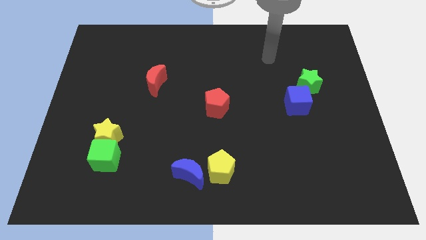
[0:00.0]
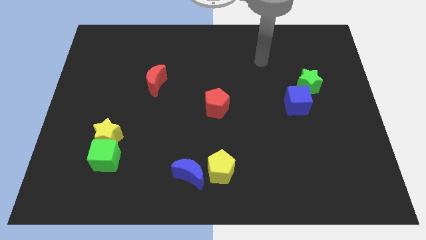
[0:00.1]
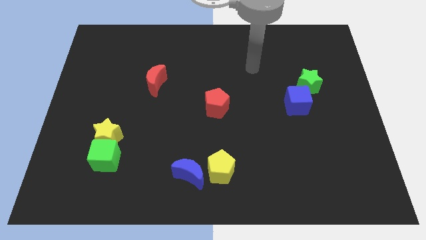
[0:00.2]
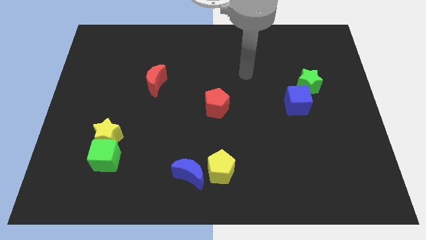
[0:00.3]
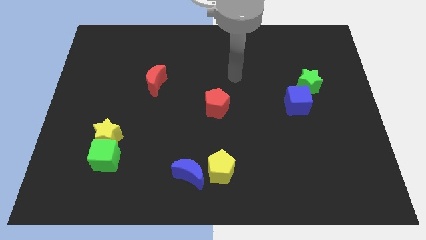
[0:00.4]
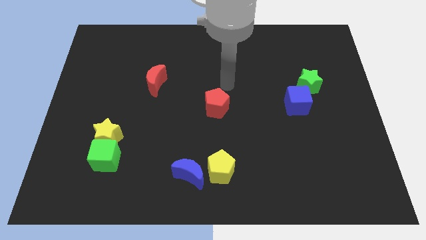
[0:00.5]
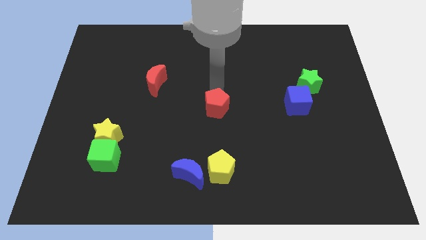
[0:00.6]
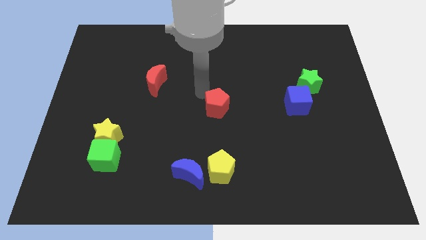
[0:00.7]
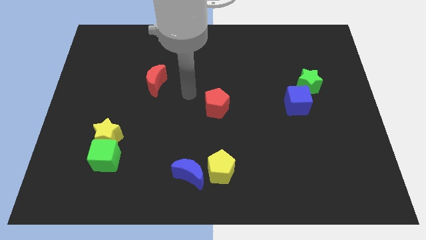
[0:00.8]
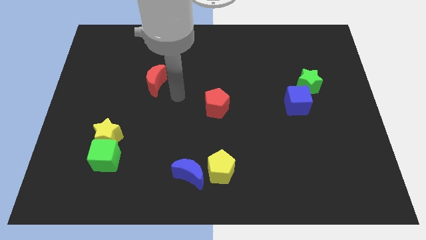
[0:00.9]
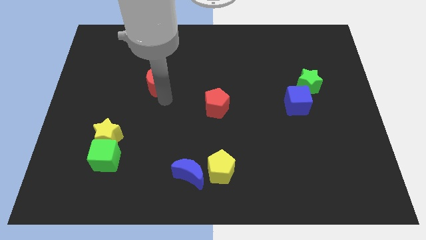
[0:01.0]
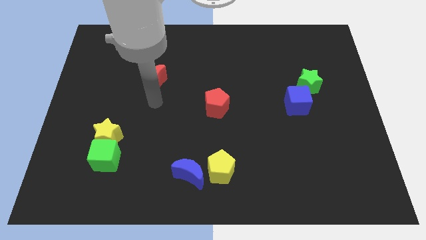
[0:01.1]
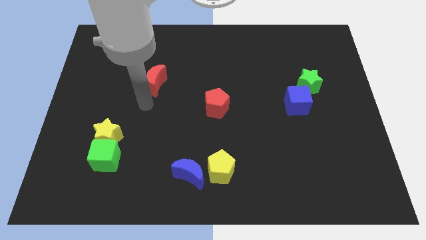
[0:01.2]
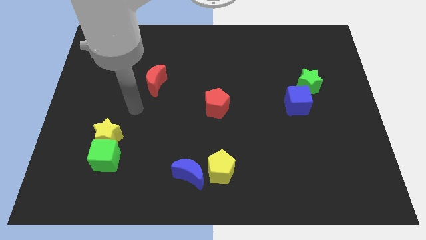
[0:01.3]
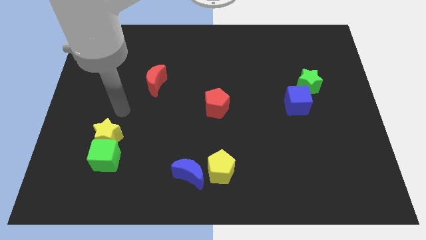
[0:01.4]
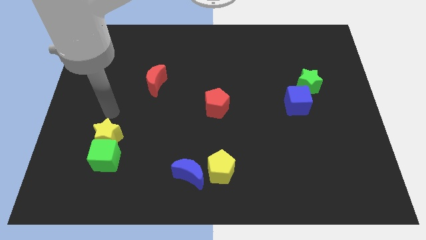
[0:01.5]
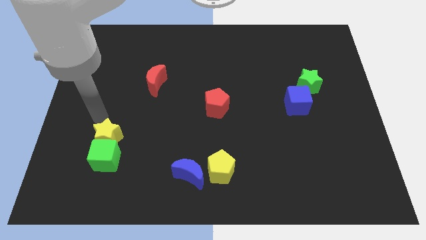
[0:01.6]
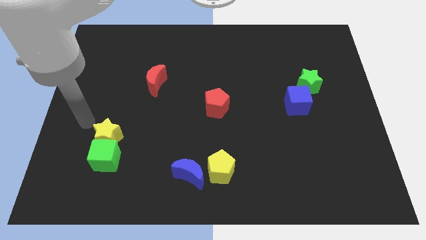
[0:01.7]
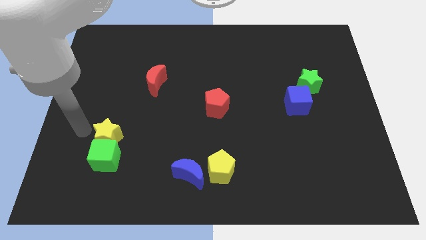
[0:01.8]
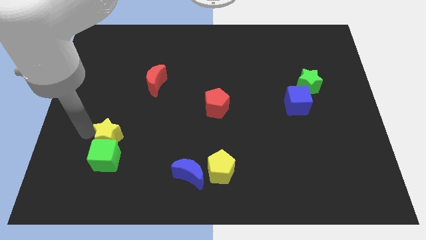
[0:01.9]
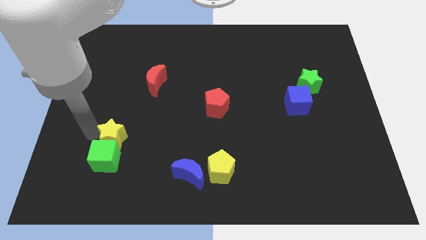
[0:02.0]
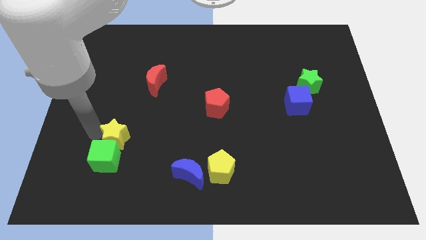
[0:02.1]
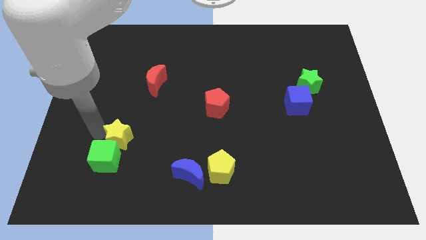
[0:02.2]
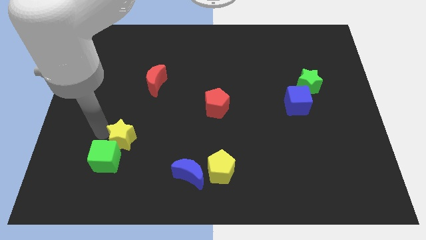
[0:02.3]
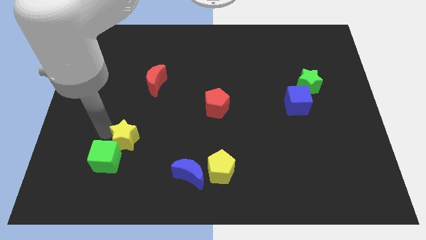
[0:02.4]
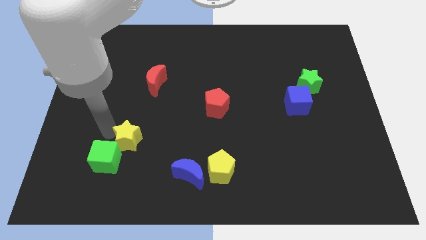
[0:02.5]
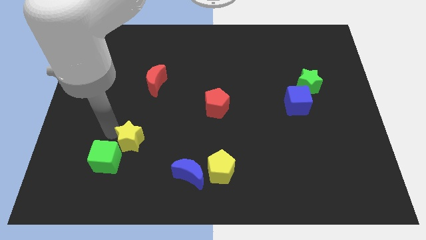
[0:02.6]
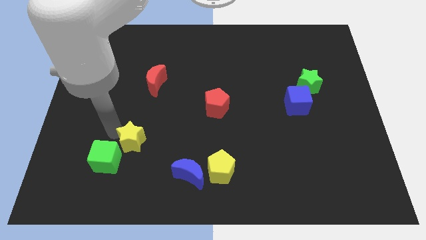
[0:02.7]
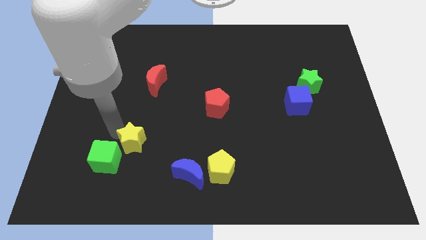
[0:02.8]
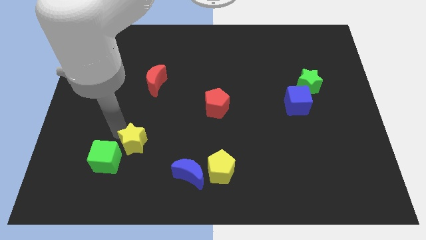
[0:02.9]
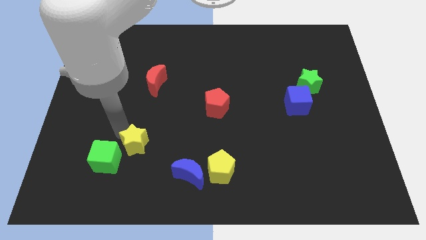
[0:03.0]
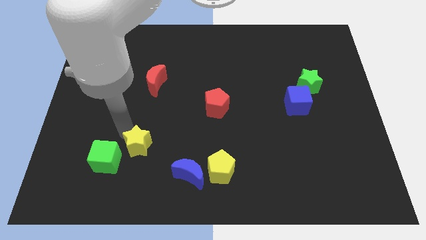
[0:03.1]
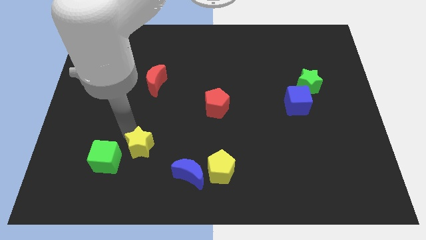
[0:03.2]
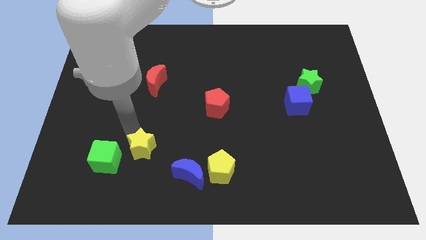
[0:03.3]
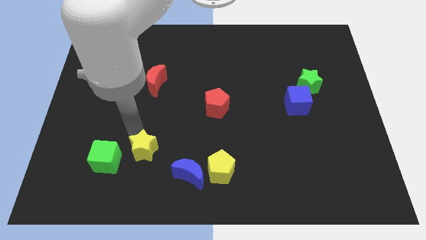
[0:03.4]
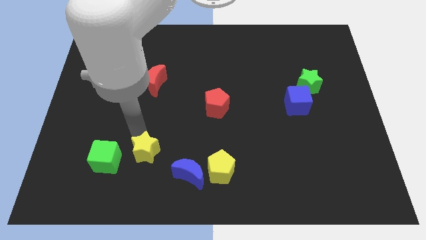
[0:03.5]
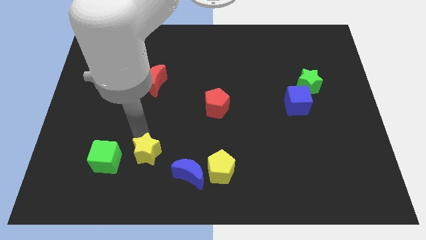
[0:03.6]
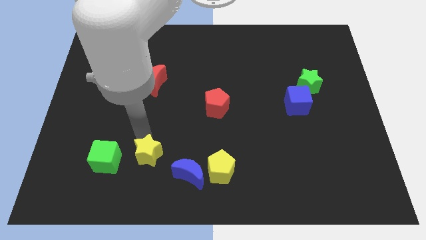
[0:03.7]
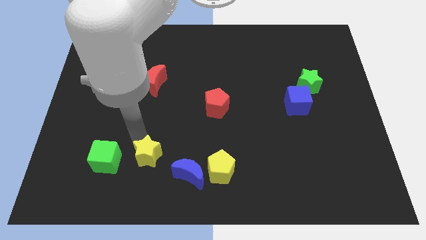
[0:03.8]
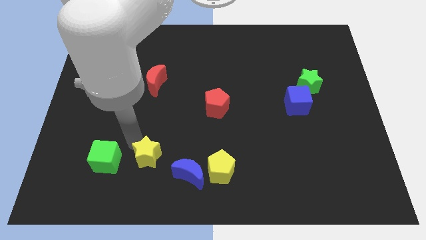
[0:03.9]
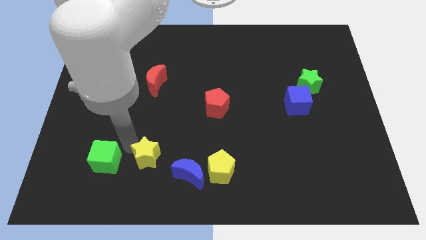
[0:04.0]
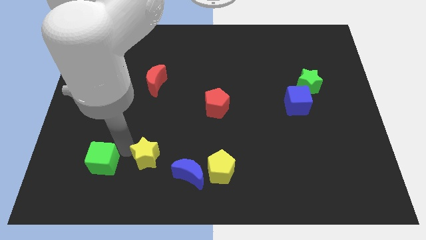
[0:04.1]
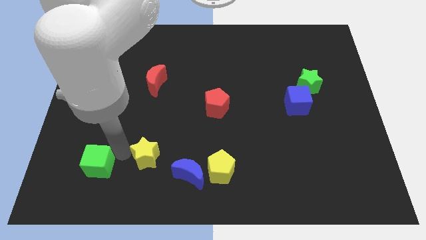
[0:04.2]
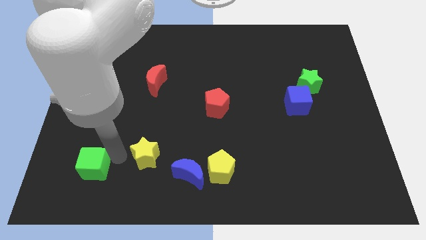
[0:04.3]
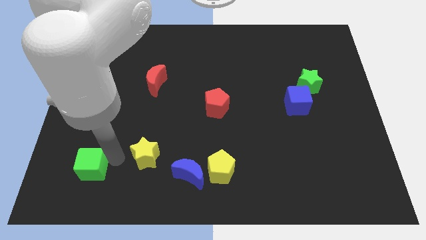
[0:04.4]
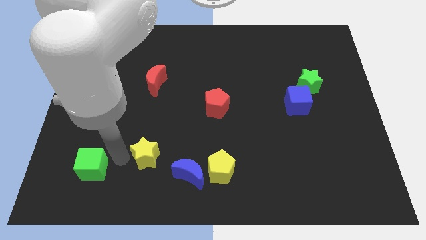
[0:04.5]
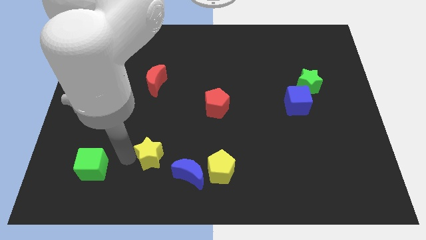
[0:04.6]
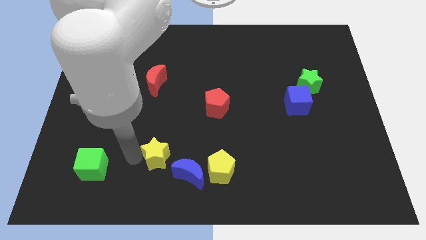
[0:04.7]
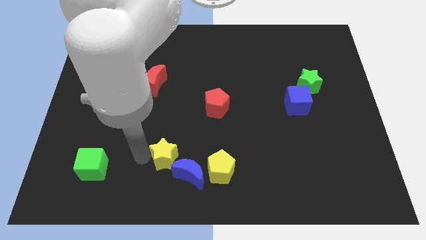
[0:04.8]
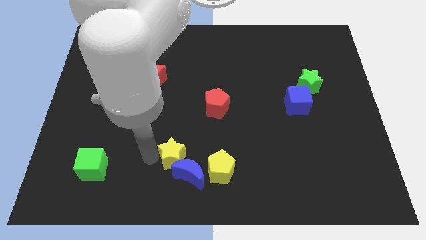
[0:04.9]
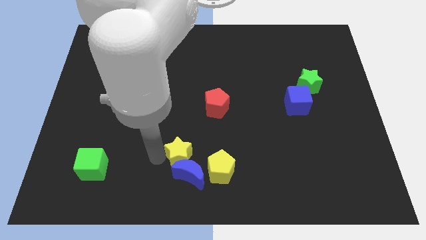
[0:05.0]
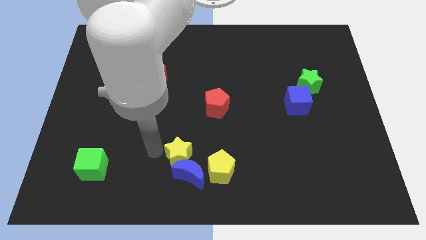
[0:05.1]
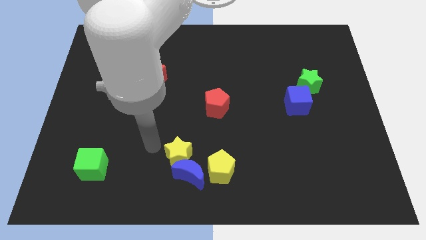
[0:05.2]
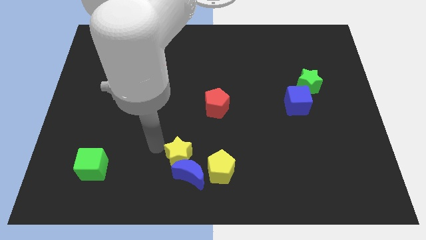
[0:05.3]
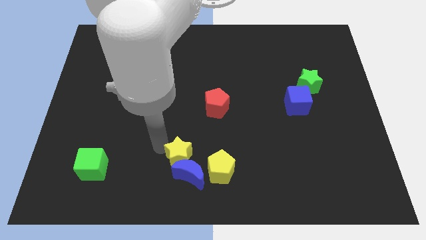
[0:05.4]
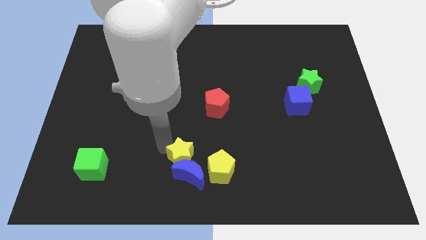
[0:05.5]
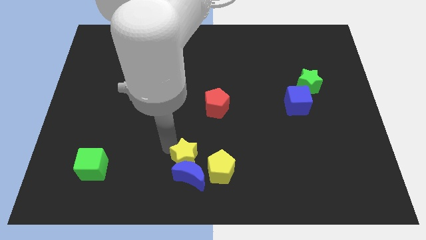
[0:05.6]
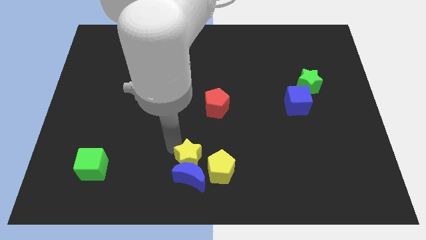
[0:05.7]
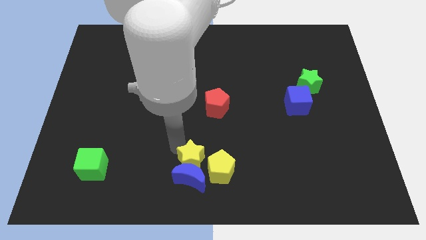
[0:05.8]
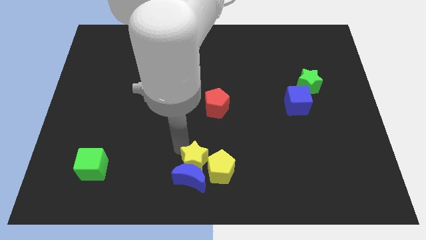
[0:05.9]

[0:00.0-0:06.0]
move the yellow star next to the yellow pentagon

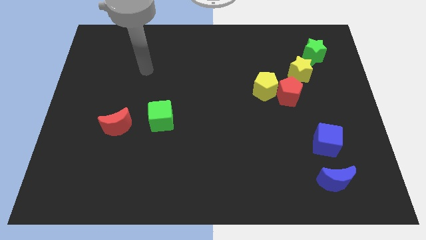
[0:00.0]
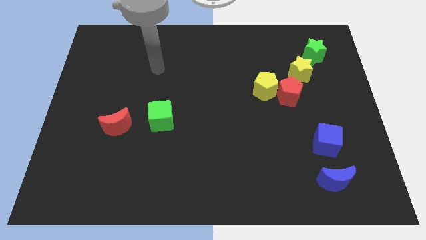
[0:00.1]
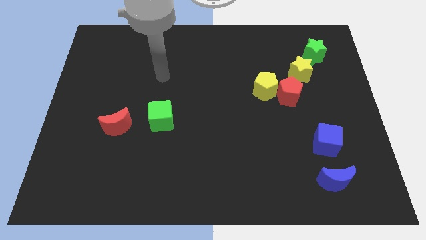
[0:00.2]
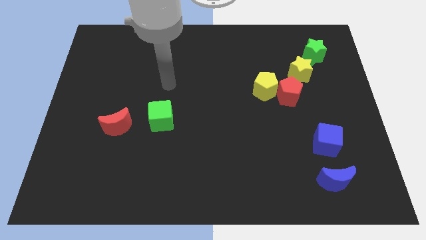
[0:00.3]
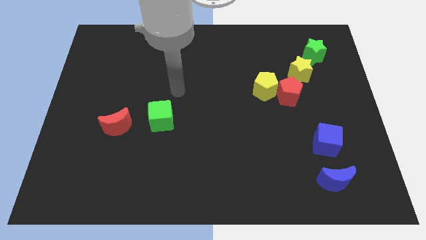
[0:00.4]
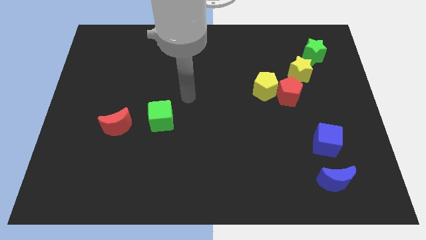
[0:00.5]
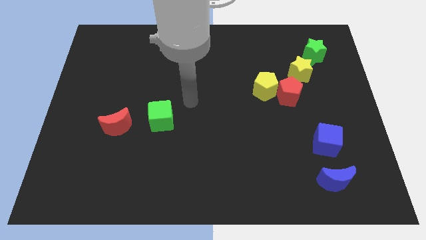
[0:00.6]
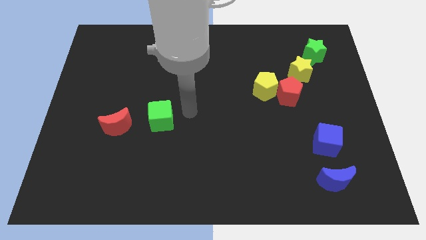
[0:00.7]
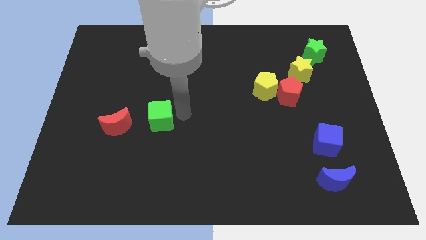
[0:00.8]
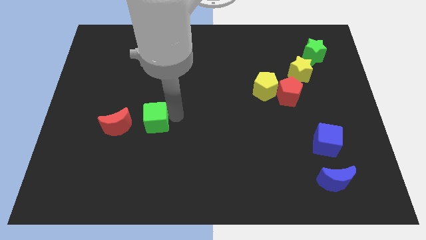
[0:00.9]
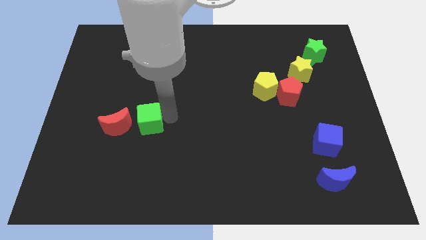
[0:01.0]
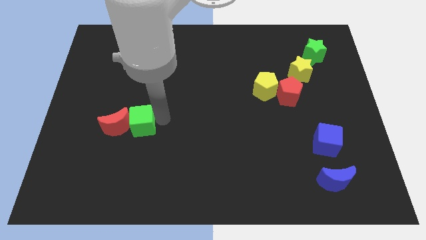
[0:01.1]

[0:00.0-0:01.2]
slide the green cube next to the red moon
